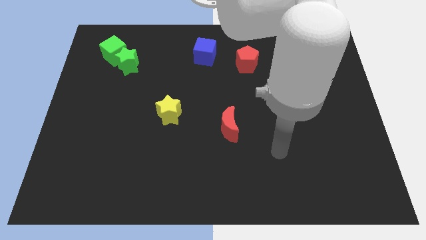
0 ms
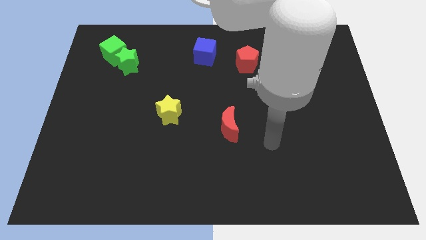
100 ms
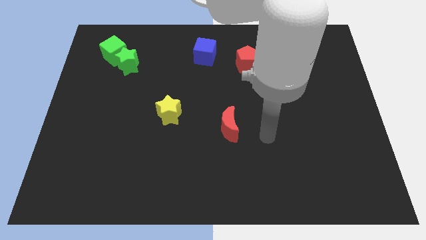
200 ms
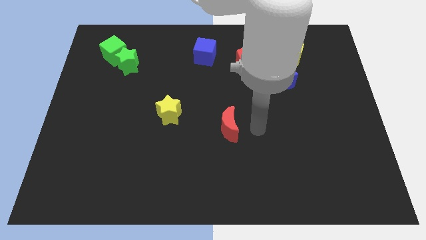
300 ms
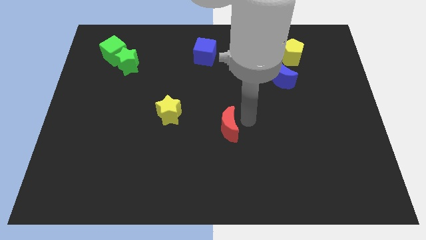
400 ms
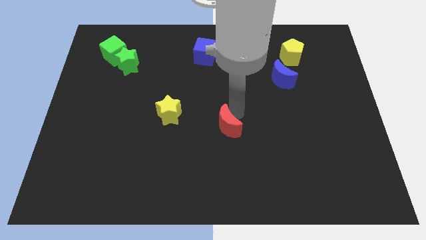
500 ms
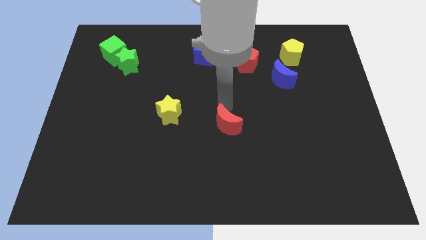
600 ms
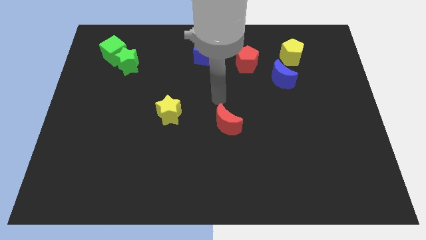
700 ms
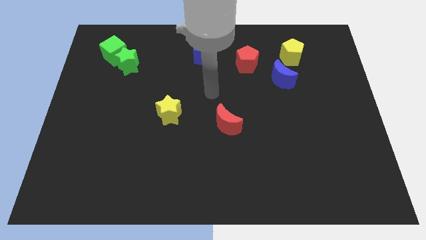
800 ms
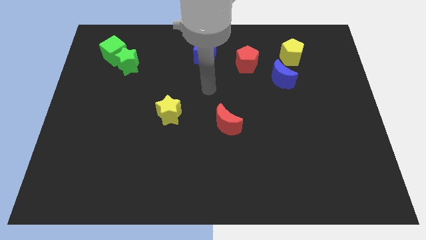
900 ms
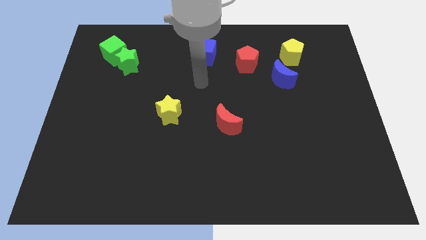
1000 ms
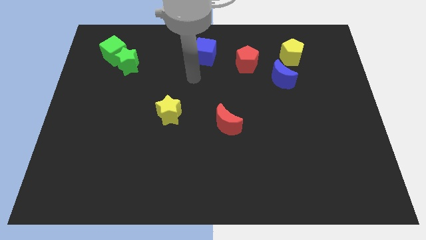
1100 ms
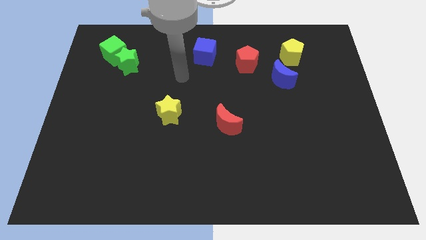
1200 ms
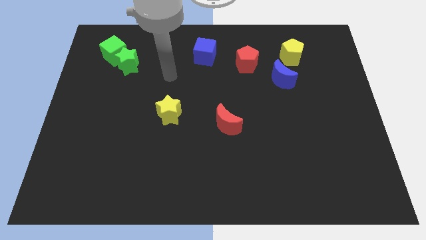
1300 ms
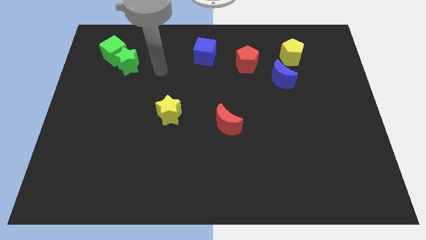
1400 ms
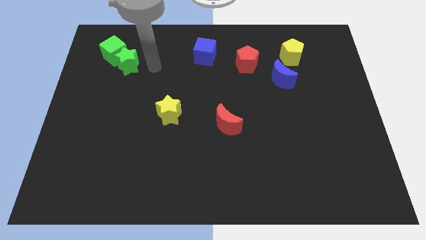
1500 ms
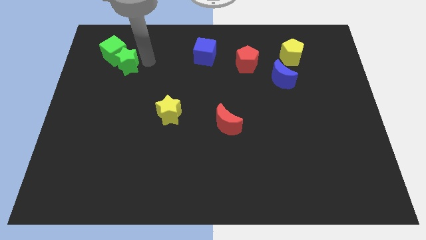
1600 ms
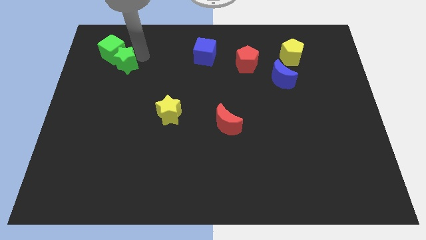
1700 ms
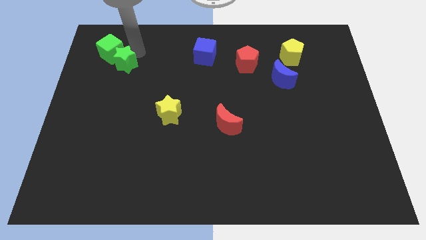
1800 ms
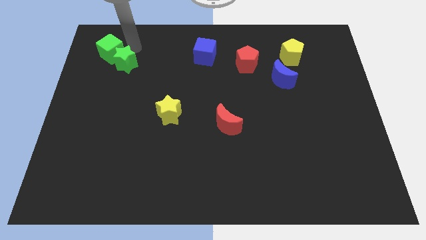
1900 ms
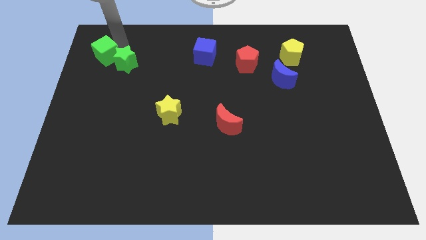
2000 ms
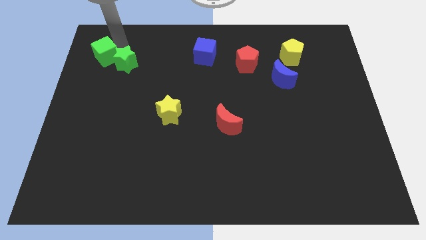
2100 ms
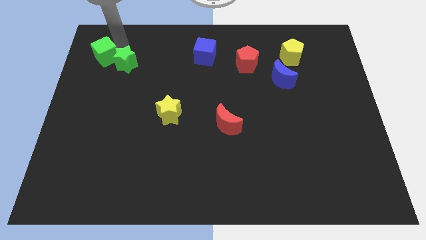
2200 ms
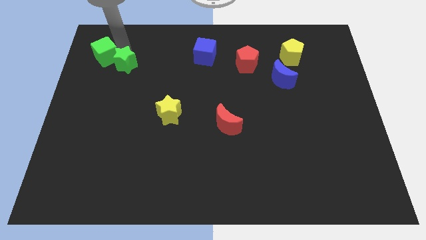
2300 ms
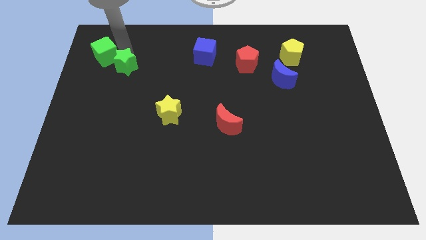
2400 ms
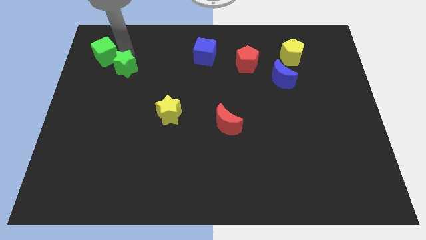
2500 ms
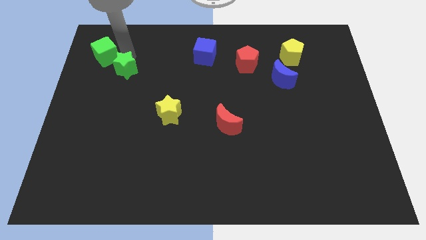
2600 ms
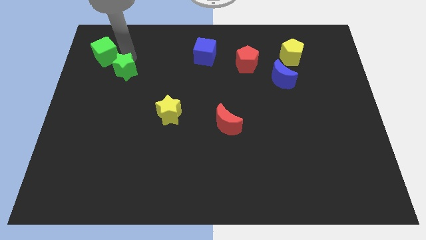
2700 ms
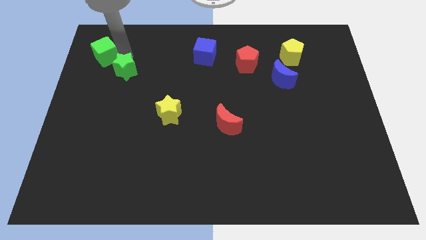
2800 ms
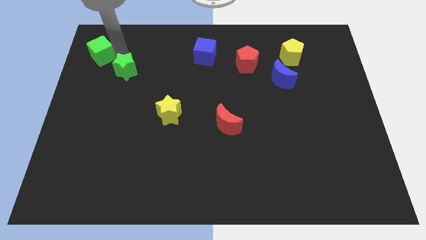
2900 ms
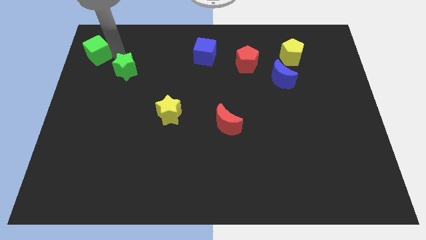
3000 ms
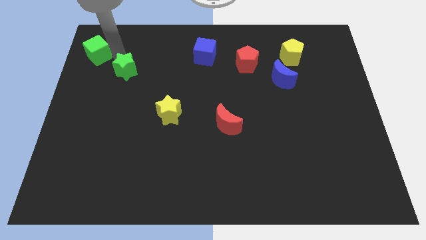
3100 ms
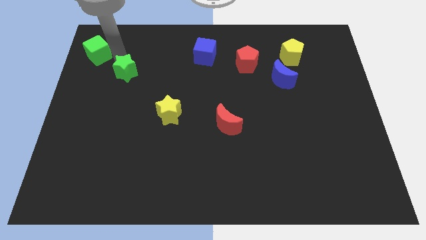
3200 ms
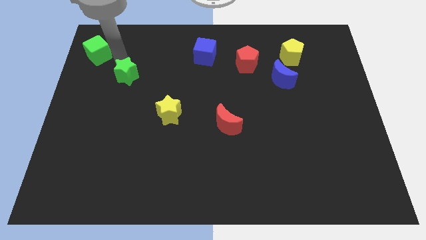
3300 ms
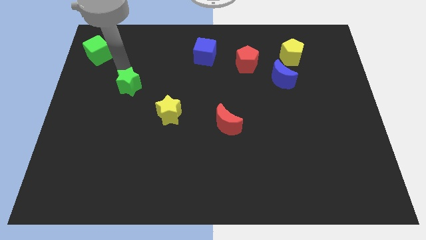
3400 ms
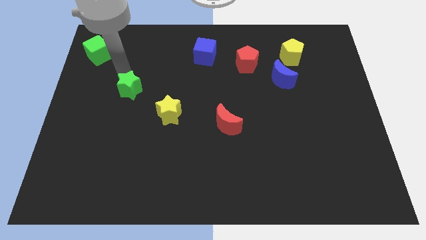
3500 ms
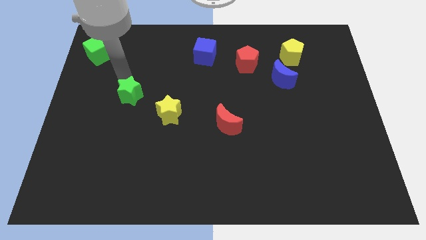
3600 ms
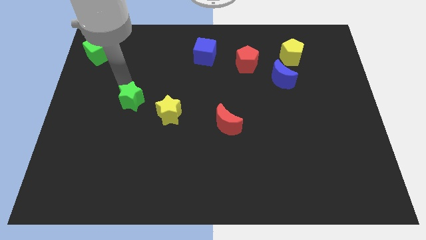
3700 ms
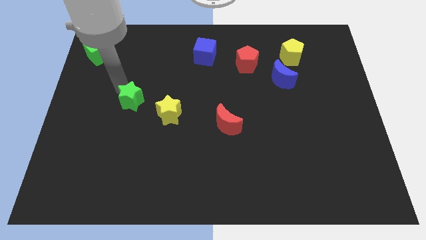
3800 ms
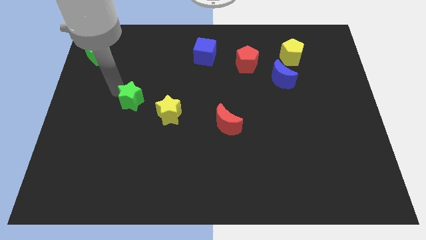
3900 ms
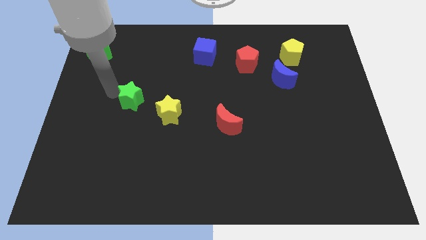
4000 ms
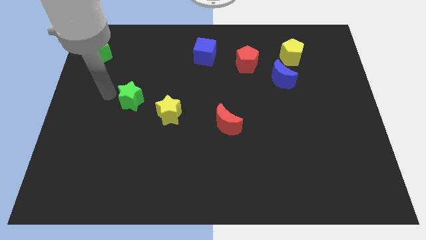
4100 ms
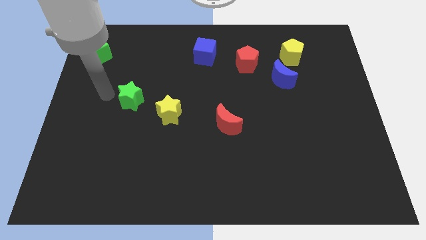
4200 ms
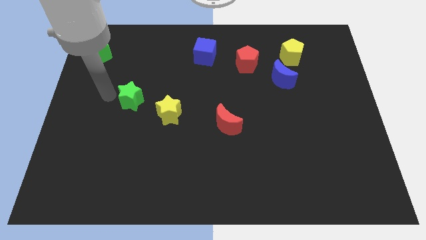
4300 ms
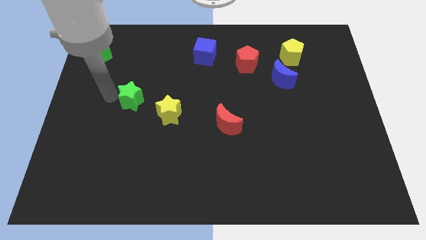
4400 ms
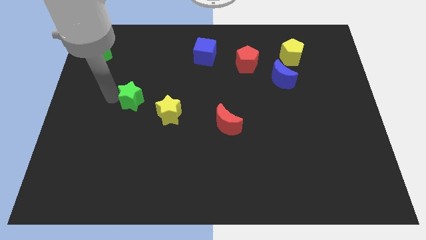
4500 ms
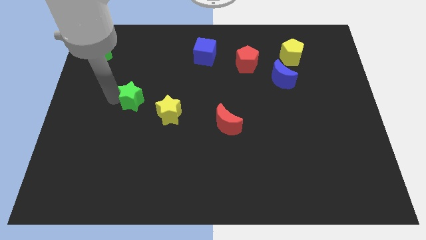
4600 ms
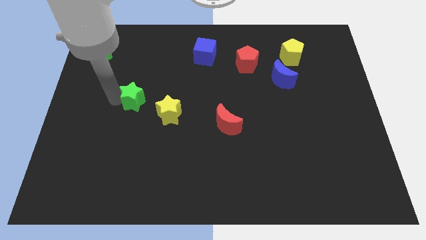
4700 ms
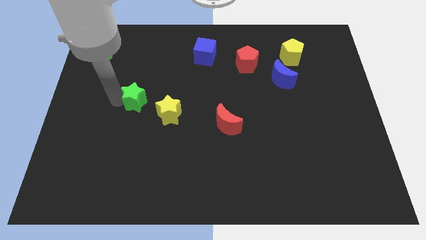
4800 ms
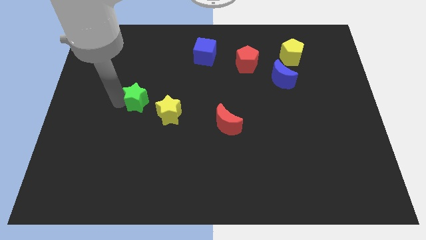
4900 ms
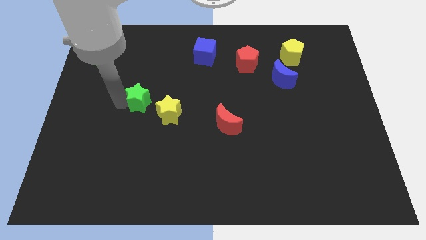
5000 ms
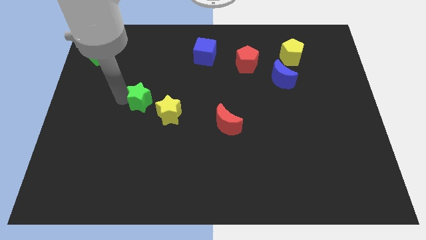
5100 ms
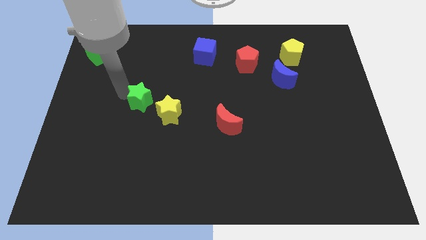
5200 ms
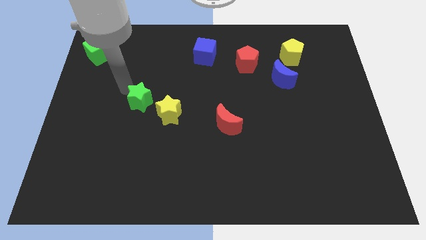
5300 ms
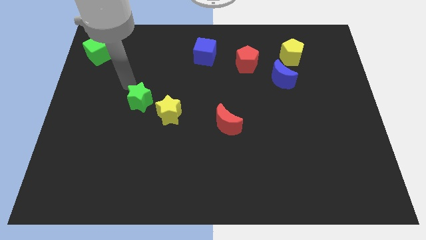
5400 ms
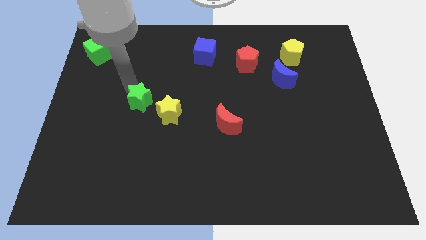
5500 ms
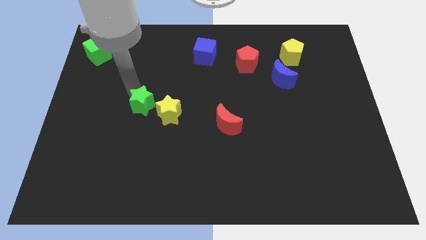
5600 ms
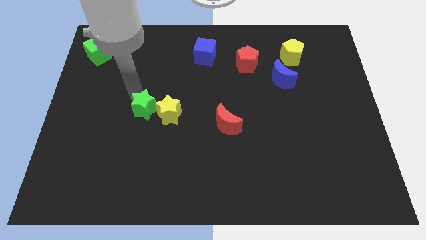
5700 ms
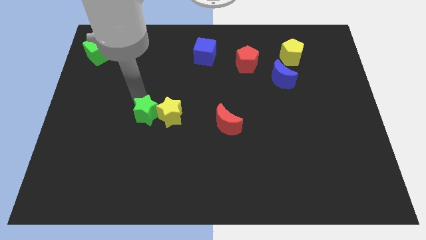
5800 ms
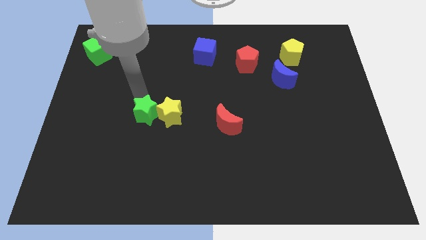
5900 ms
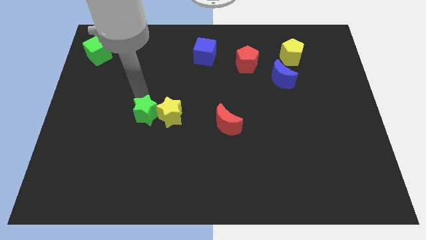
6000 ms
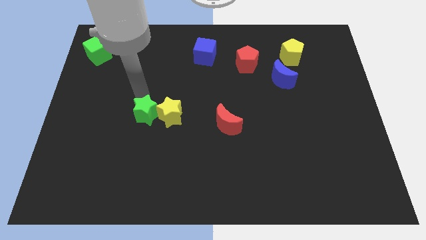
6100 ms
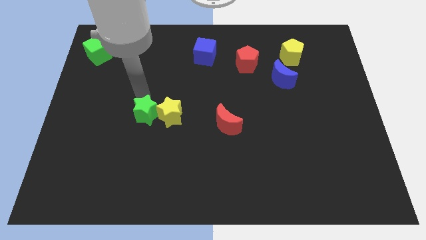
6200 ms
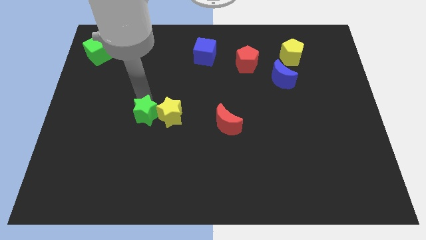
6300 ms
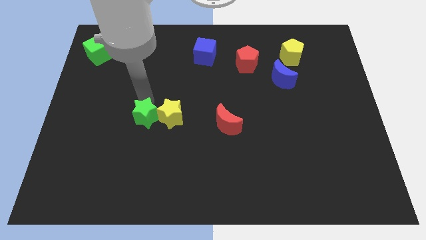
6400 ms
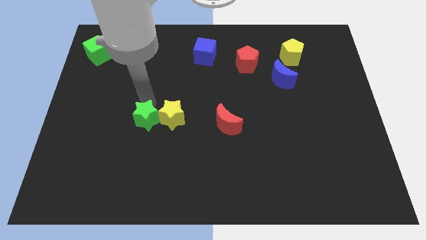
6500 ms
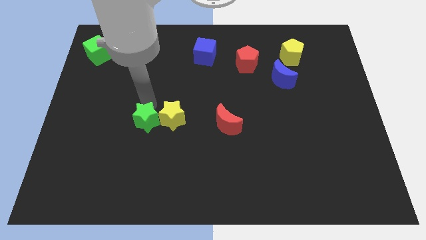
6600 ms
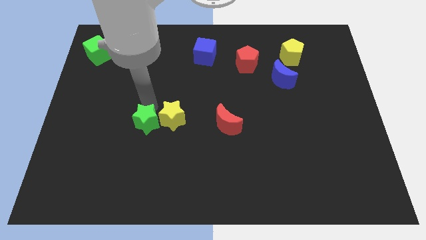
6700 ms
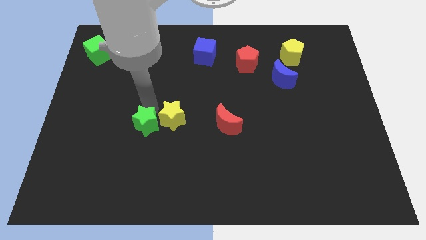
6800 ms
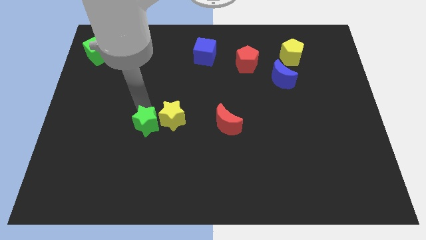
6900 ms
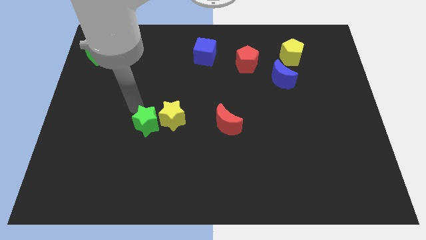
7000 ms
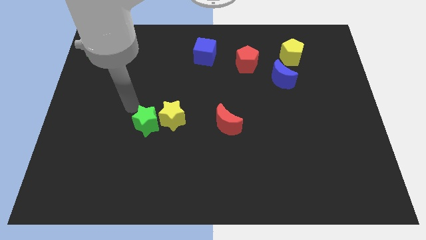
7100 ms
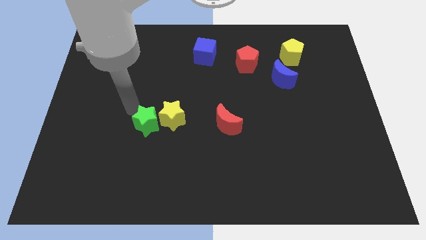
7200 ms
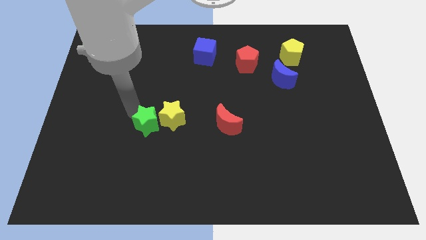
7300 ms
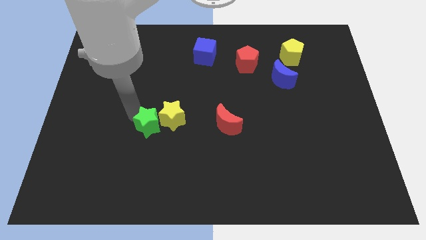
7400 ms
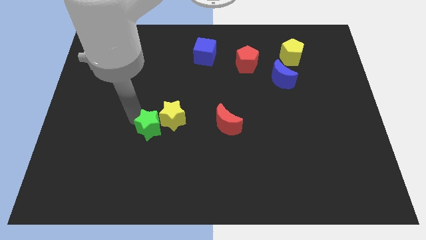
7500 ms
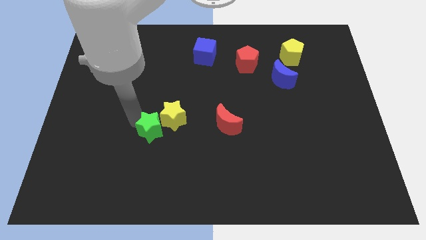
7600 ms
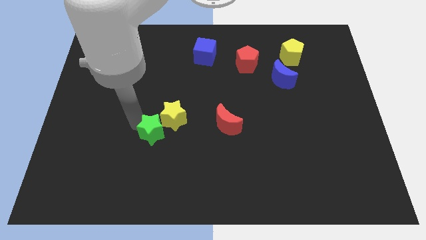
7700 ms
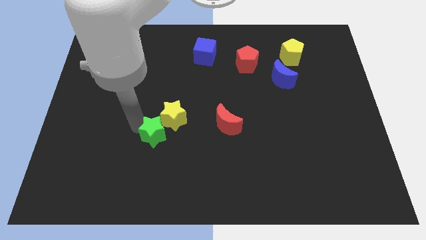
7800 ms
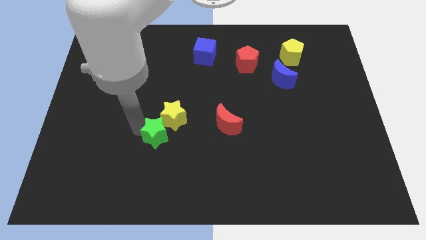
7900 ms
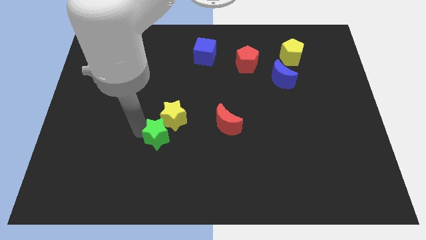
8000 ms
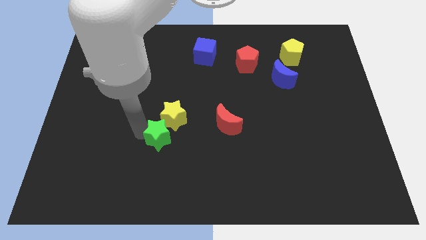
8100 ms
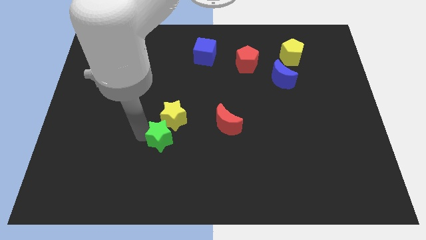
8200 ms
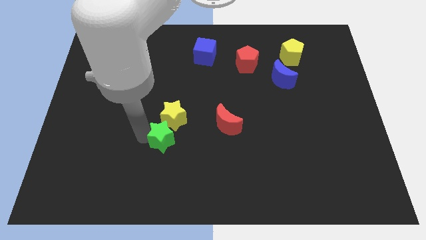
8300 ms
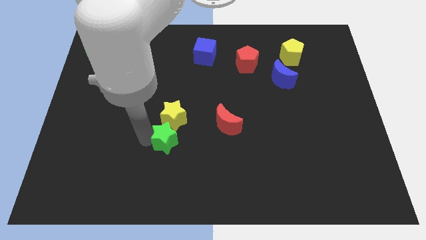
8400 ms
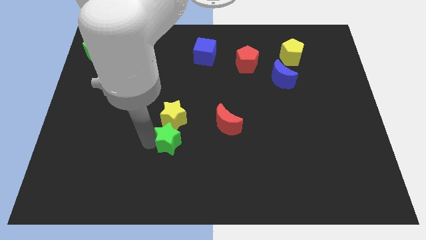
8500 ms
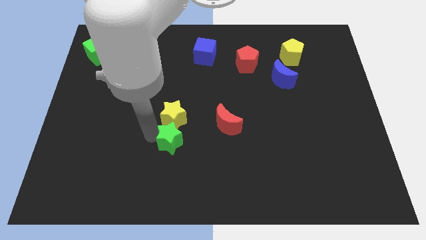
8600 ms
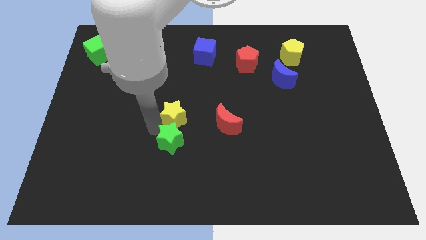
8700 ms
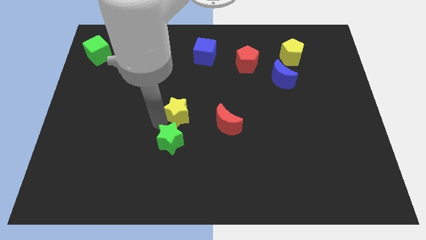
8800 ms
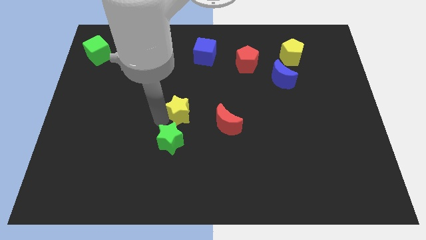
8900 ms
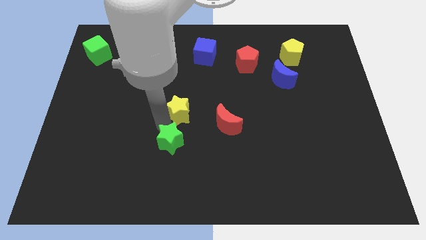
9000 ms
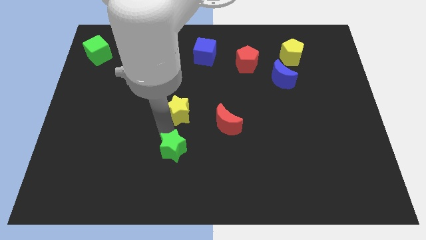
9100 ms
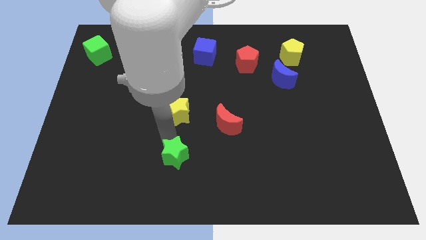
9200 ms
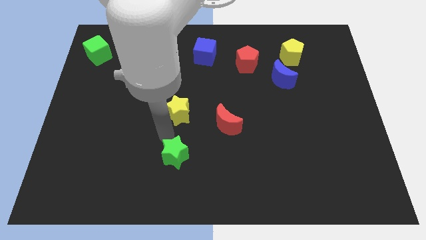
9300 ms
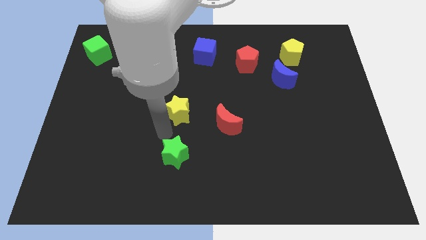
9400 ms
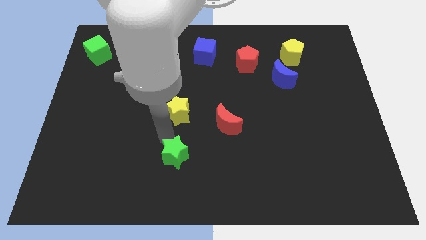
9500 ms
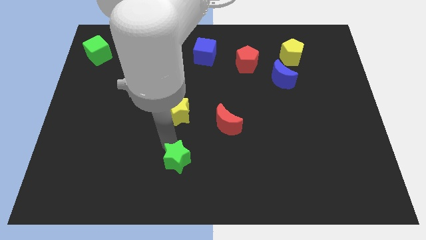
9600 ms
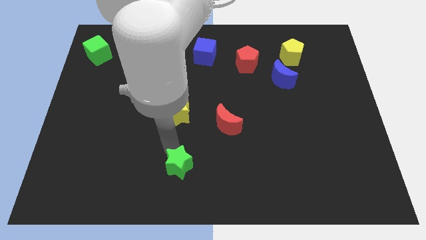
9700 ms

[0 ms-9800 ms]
slide the green star to the bottom
